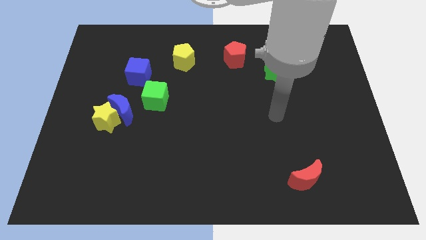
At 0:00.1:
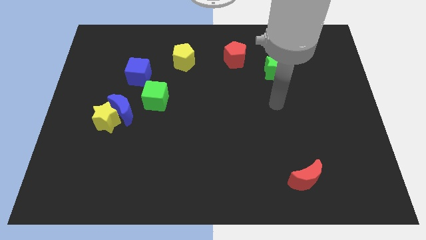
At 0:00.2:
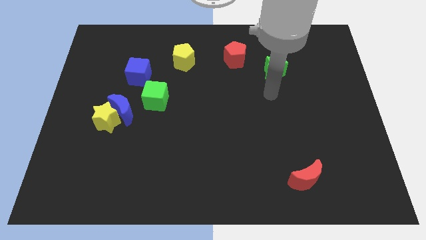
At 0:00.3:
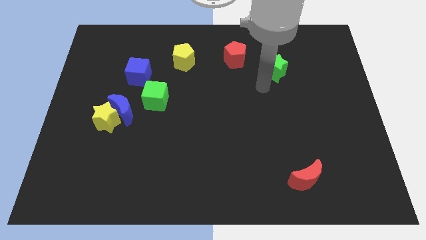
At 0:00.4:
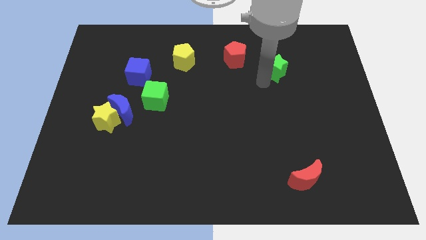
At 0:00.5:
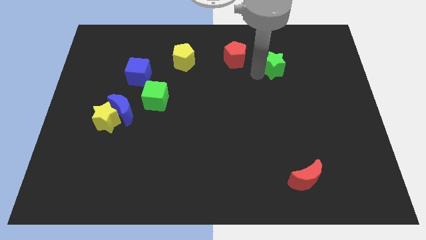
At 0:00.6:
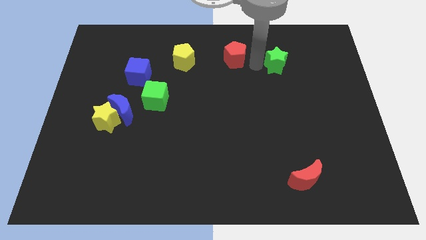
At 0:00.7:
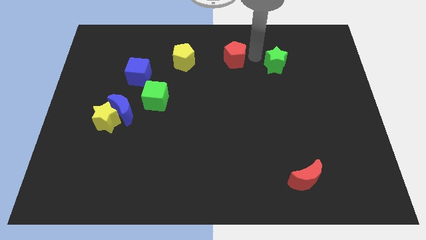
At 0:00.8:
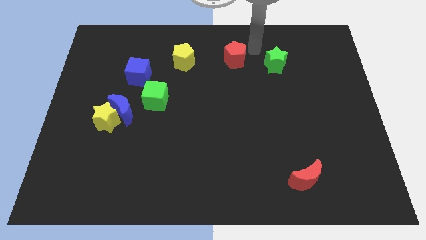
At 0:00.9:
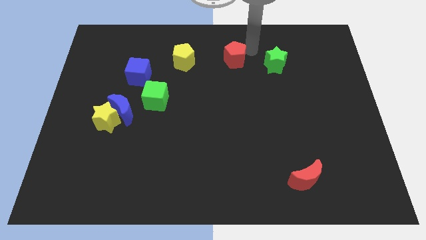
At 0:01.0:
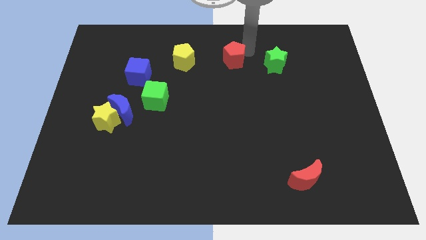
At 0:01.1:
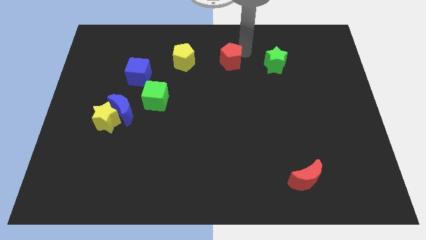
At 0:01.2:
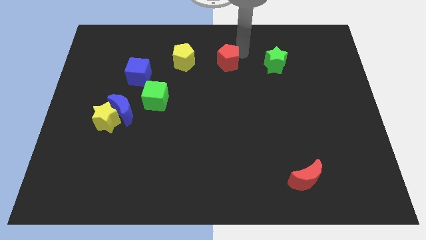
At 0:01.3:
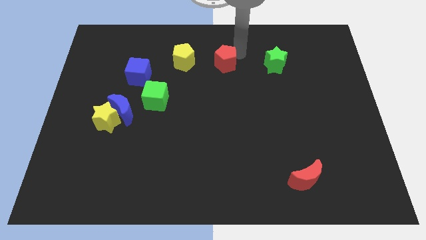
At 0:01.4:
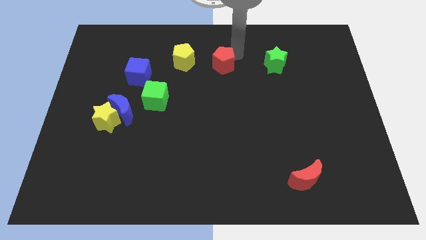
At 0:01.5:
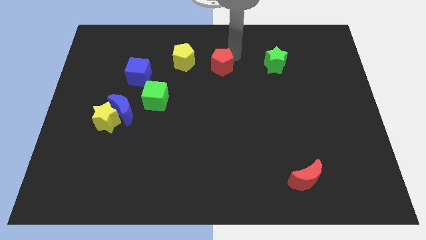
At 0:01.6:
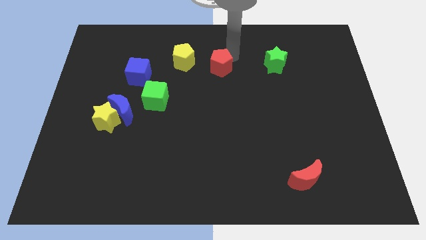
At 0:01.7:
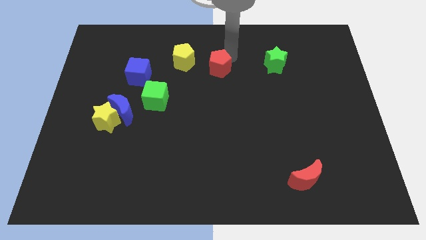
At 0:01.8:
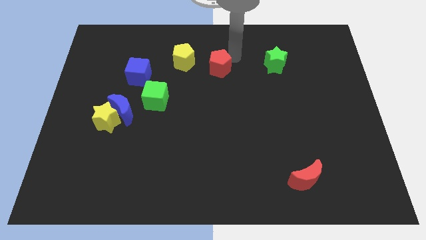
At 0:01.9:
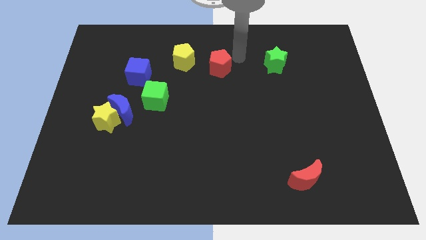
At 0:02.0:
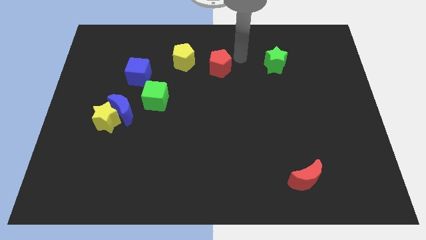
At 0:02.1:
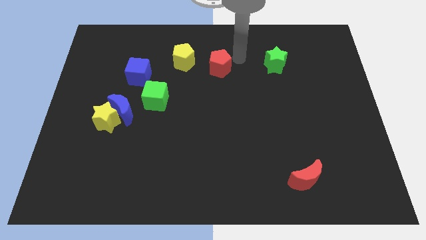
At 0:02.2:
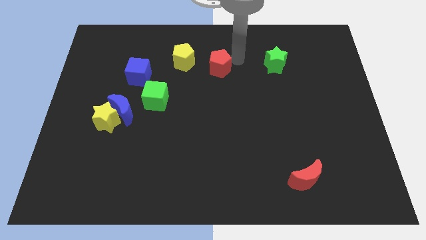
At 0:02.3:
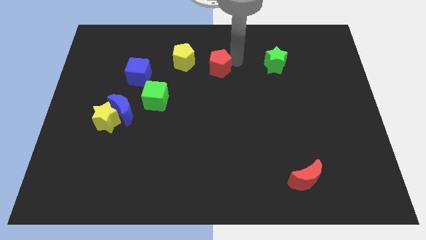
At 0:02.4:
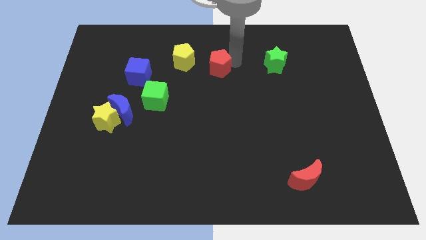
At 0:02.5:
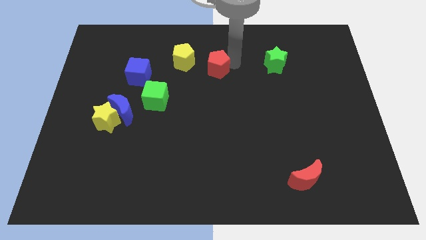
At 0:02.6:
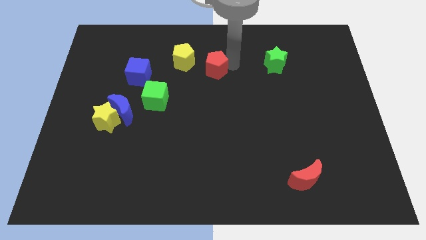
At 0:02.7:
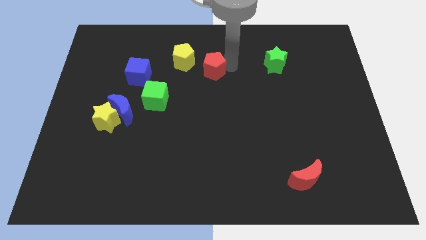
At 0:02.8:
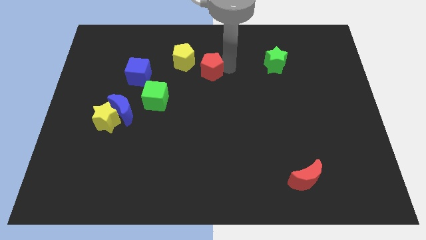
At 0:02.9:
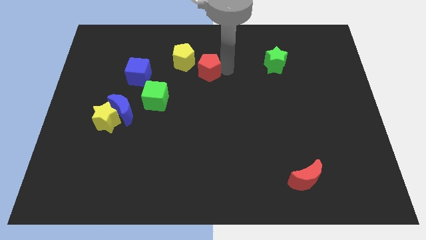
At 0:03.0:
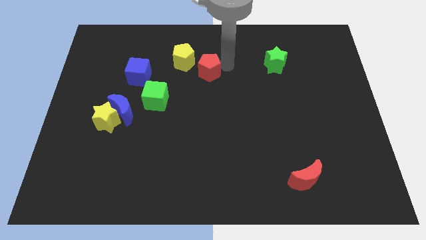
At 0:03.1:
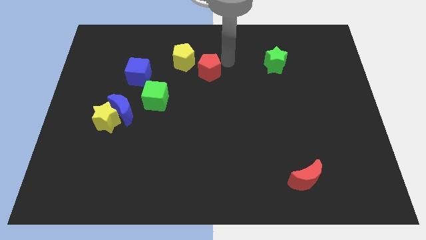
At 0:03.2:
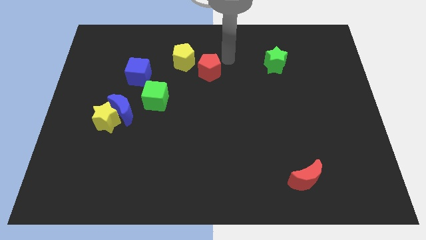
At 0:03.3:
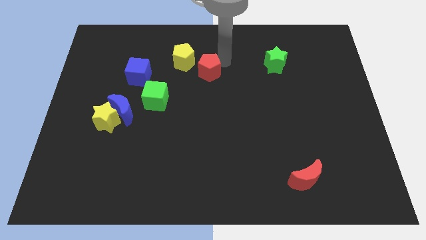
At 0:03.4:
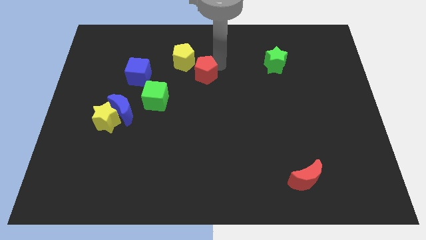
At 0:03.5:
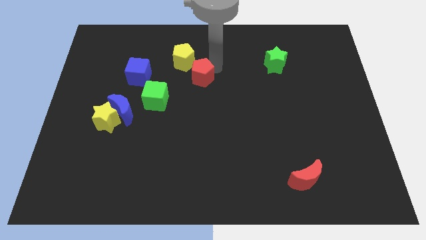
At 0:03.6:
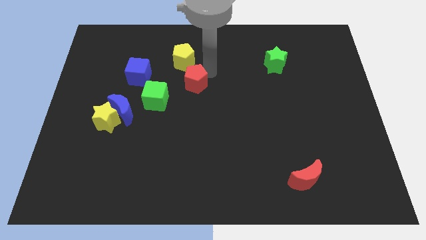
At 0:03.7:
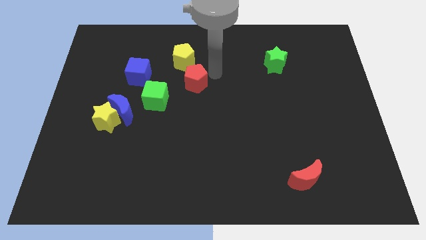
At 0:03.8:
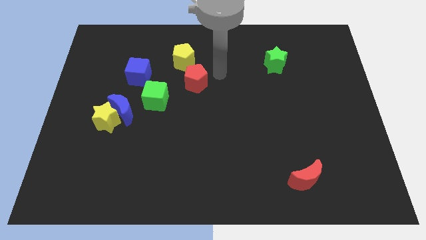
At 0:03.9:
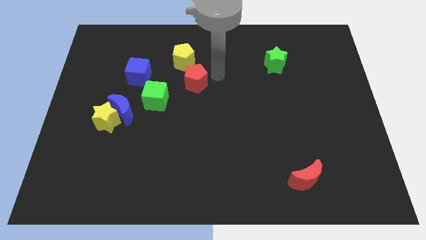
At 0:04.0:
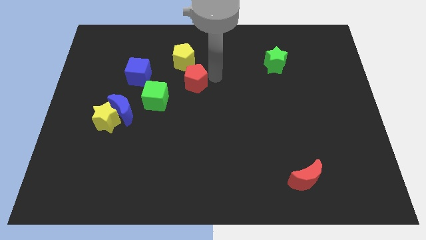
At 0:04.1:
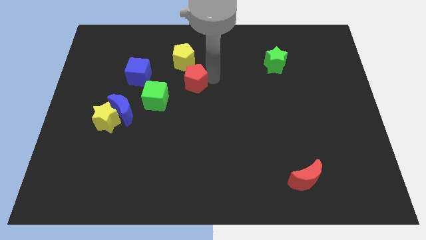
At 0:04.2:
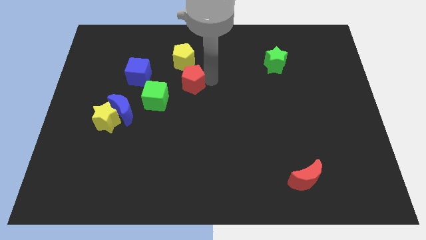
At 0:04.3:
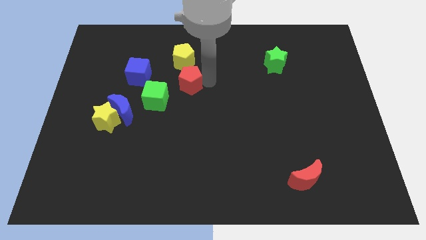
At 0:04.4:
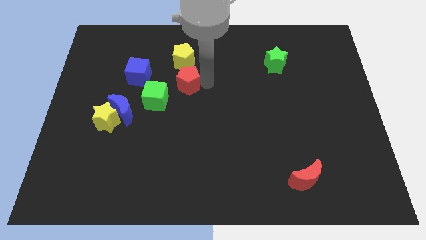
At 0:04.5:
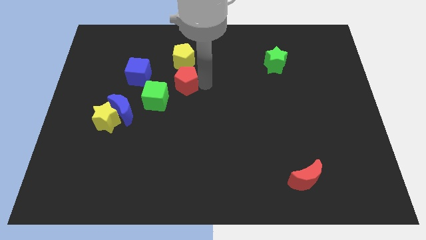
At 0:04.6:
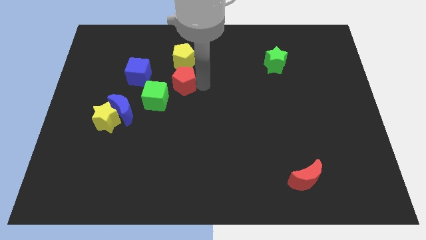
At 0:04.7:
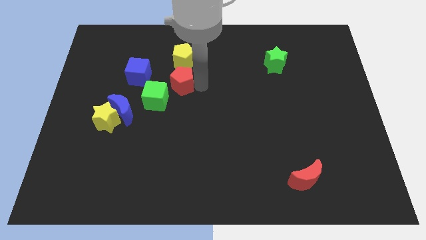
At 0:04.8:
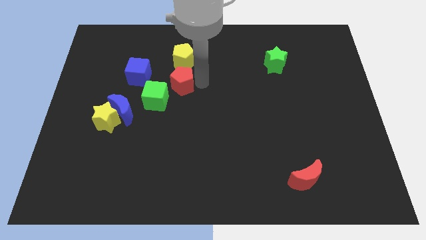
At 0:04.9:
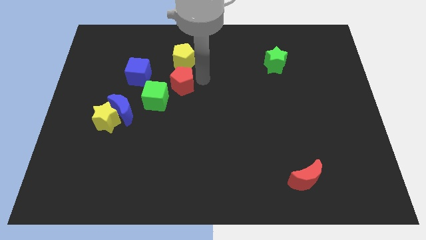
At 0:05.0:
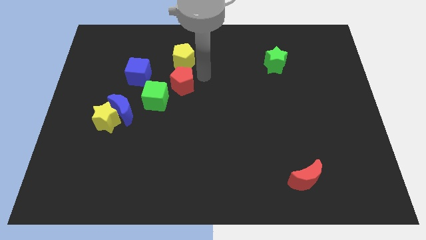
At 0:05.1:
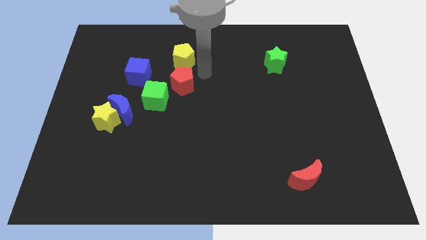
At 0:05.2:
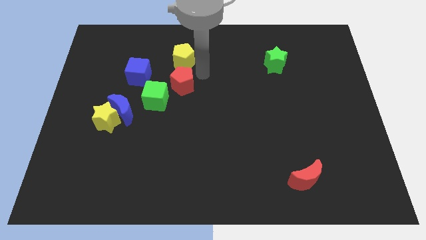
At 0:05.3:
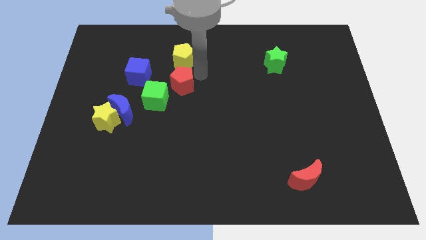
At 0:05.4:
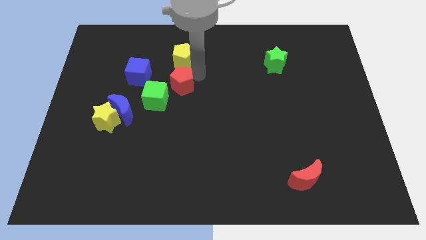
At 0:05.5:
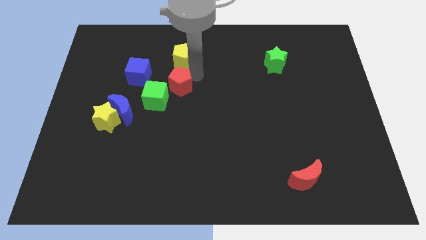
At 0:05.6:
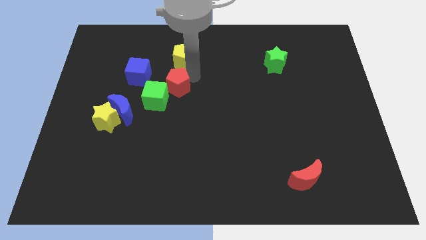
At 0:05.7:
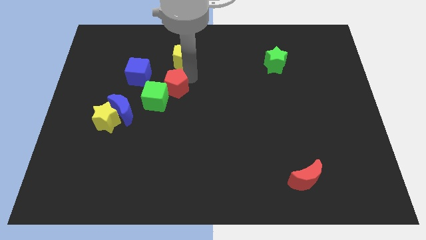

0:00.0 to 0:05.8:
push the red pentagon towards the green cube

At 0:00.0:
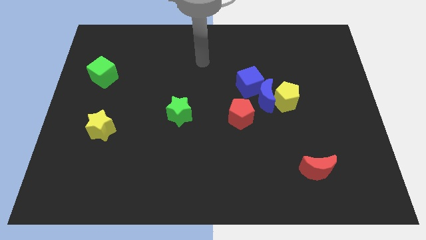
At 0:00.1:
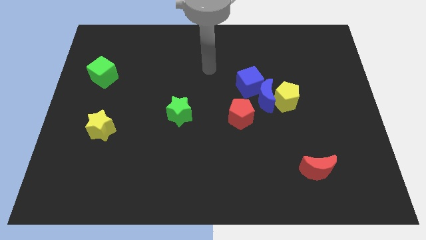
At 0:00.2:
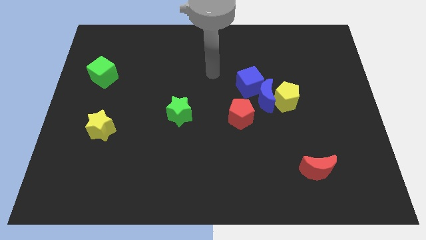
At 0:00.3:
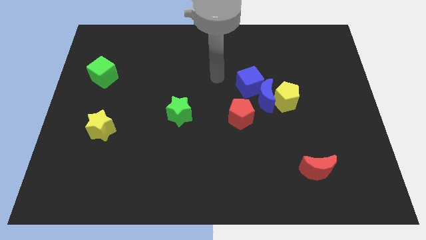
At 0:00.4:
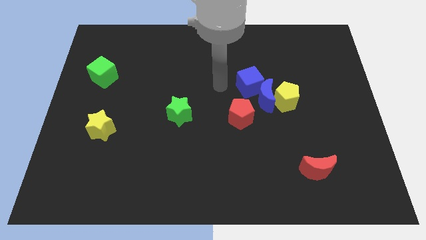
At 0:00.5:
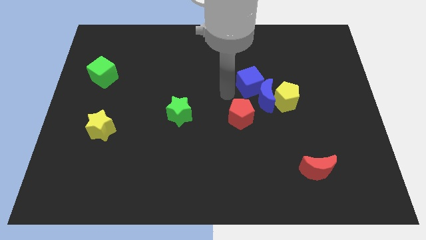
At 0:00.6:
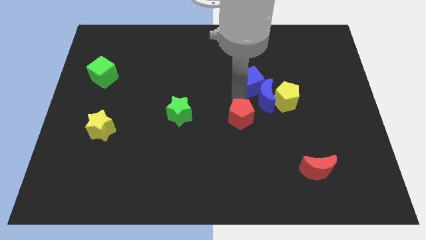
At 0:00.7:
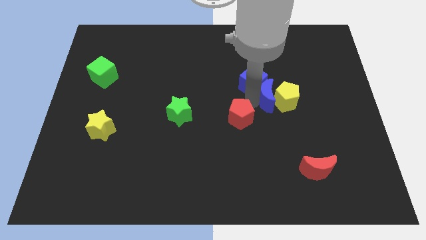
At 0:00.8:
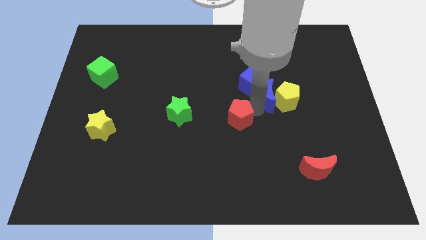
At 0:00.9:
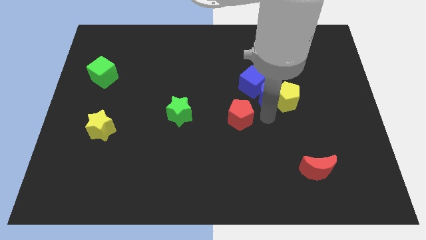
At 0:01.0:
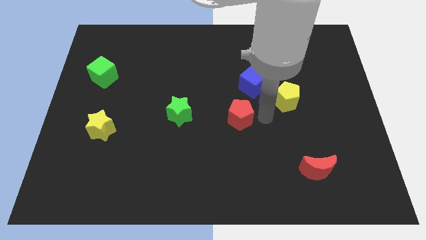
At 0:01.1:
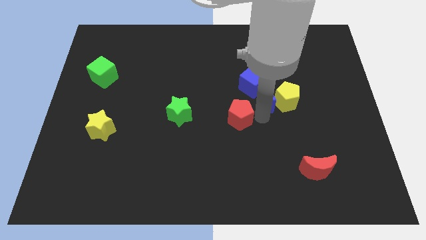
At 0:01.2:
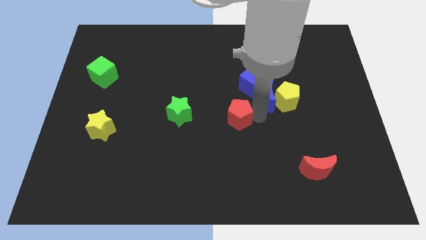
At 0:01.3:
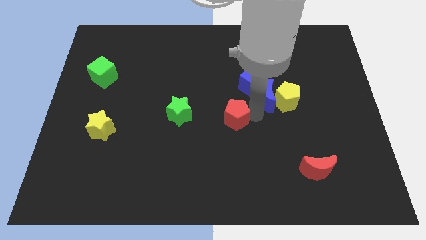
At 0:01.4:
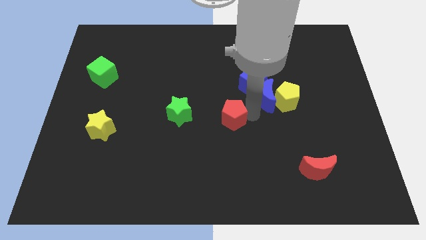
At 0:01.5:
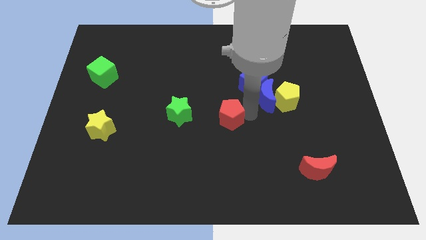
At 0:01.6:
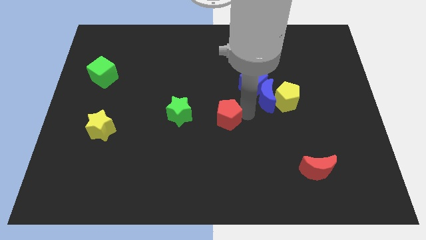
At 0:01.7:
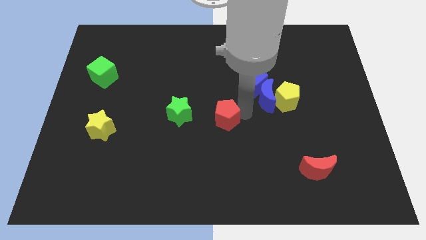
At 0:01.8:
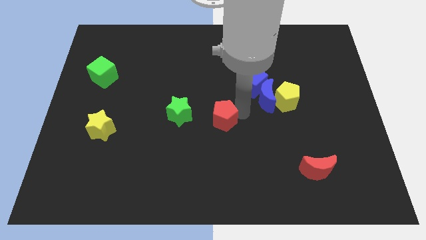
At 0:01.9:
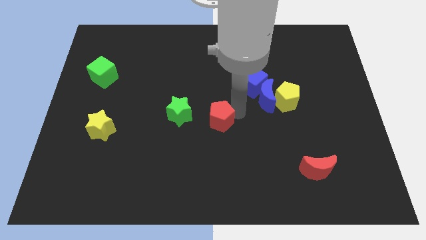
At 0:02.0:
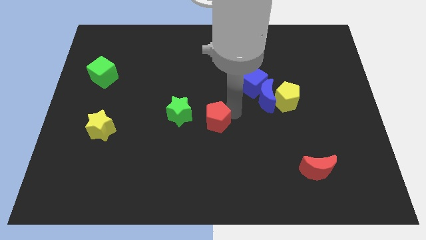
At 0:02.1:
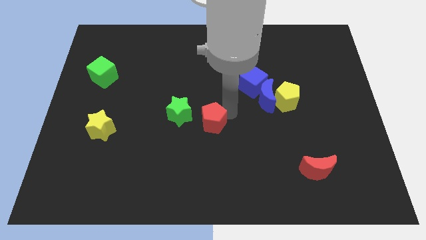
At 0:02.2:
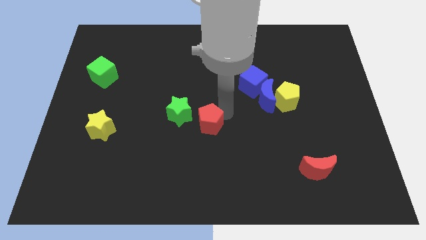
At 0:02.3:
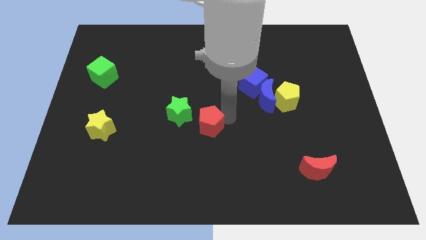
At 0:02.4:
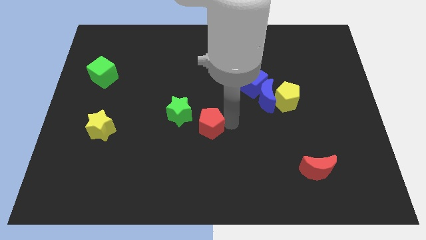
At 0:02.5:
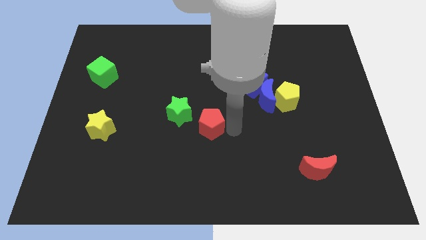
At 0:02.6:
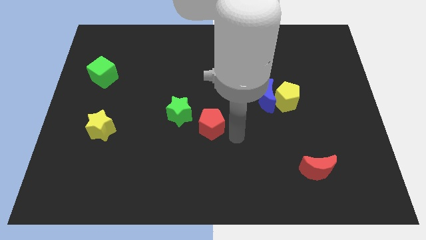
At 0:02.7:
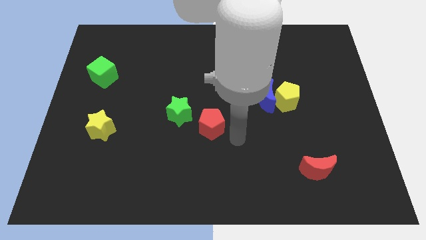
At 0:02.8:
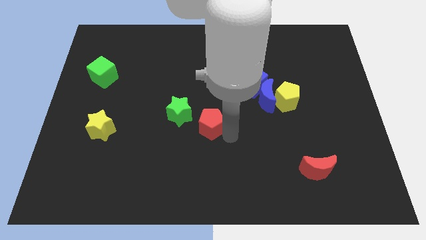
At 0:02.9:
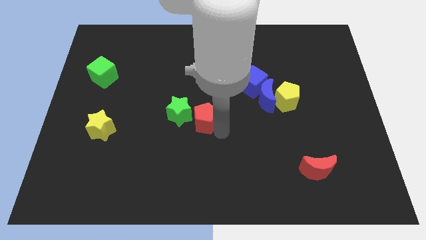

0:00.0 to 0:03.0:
push the red pentagon to the green star
